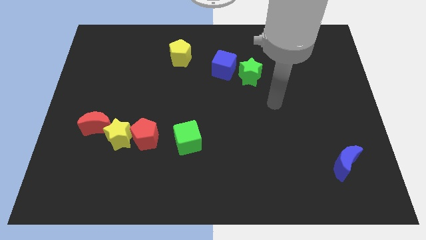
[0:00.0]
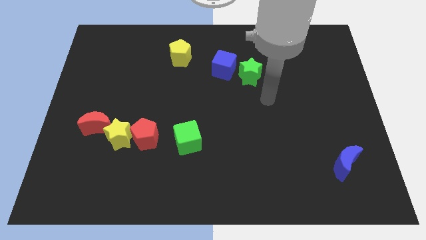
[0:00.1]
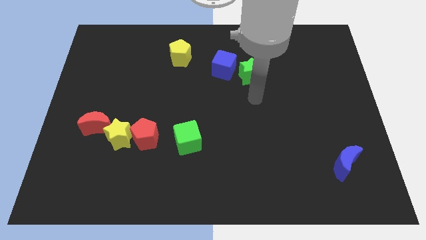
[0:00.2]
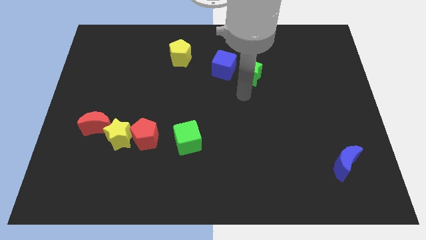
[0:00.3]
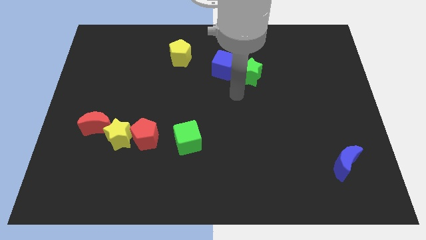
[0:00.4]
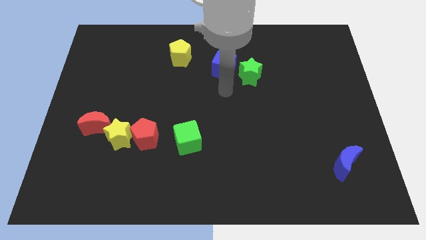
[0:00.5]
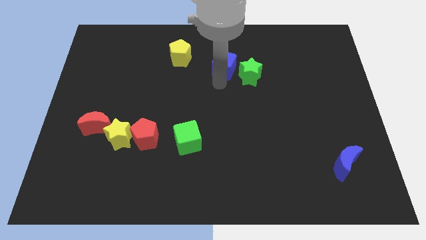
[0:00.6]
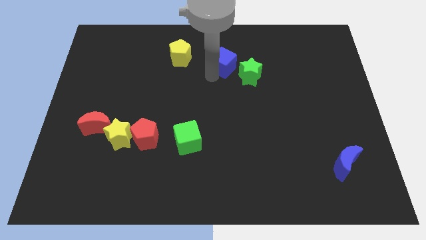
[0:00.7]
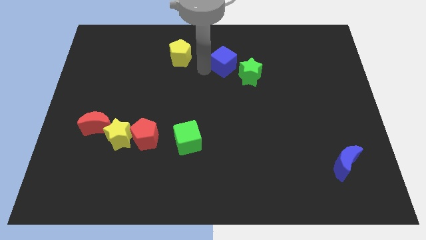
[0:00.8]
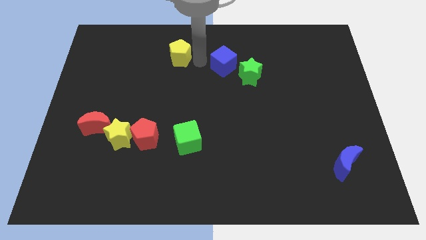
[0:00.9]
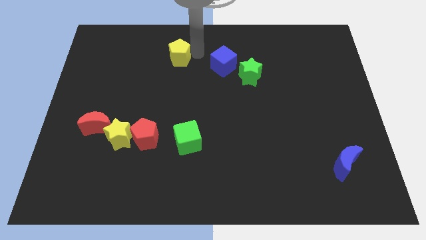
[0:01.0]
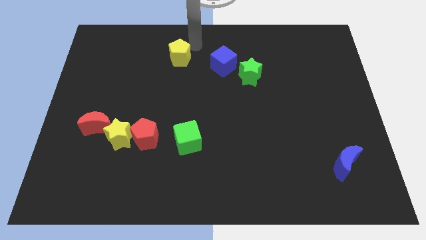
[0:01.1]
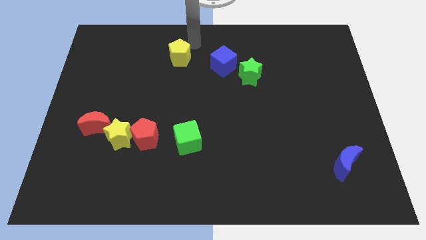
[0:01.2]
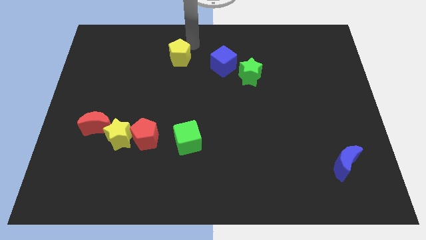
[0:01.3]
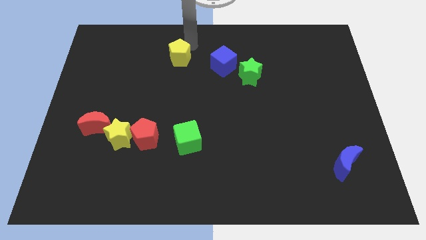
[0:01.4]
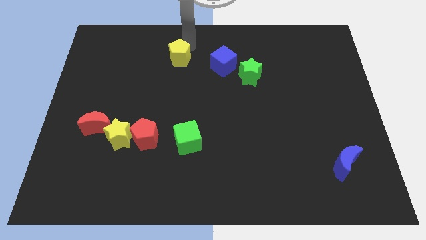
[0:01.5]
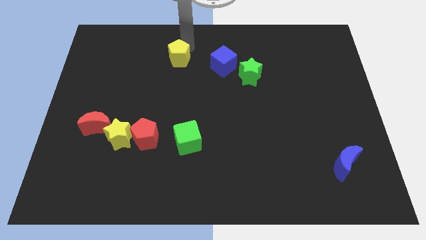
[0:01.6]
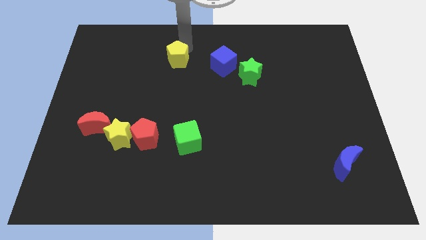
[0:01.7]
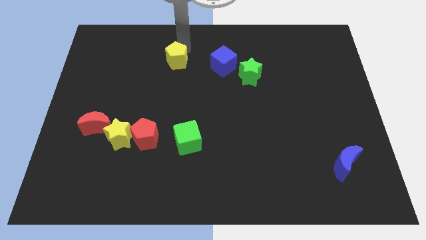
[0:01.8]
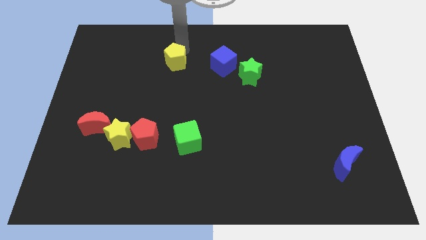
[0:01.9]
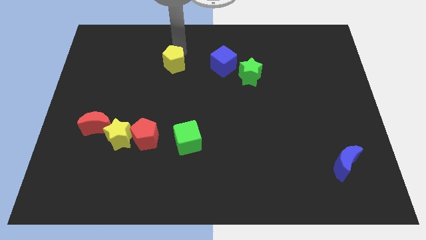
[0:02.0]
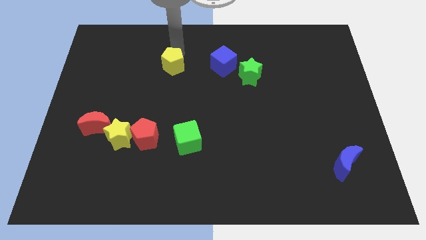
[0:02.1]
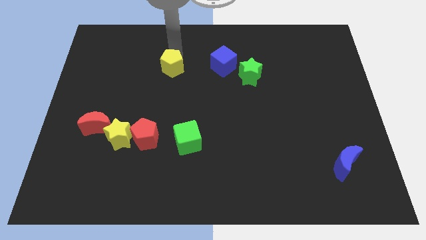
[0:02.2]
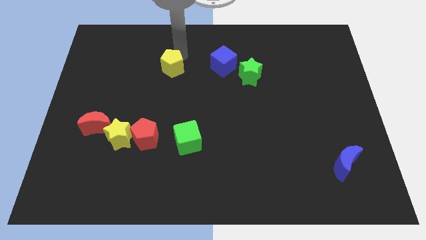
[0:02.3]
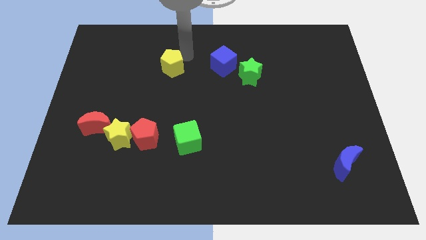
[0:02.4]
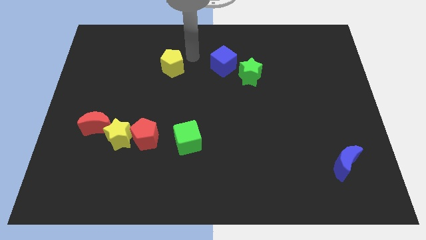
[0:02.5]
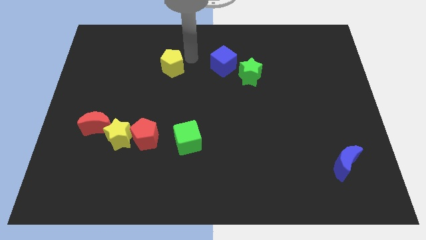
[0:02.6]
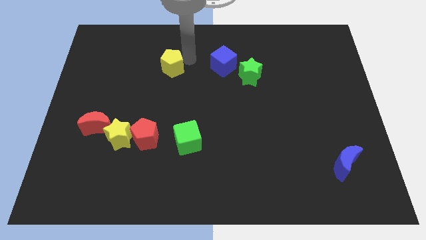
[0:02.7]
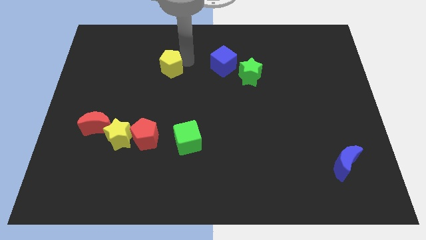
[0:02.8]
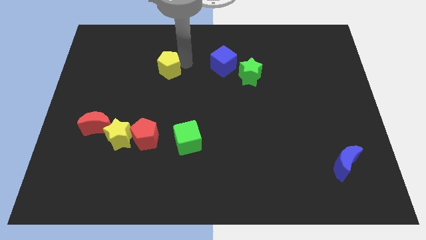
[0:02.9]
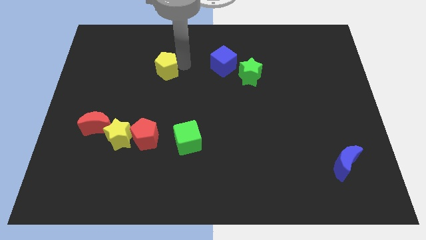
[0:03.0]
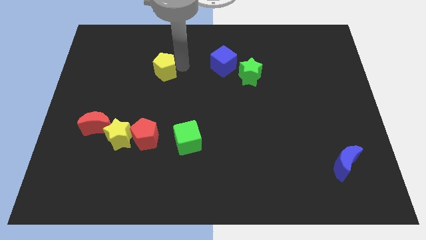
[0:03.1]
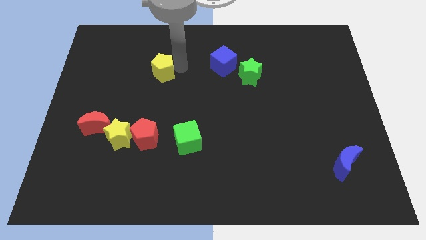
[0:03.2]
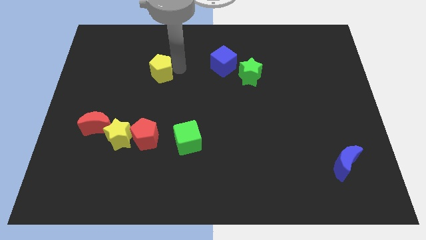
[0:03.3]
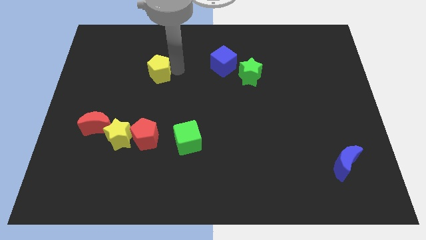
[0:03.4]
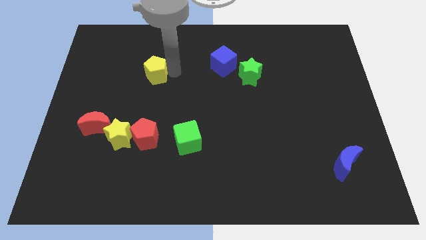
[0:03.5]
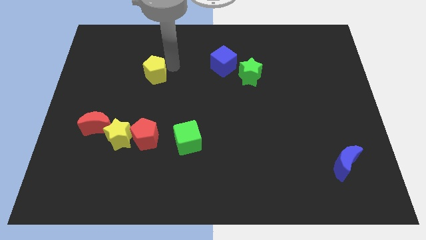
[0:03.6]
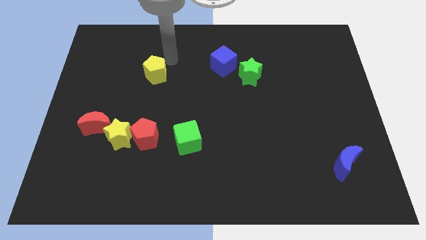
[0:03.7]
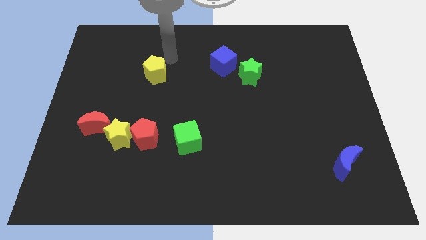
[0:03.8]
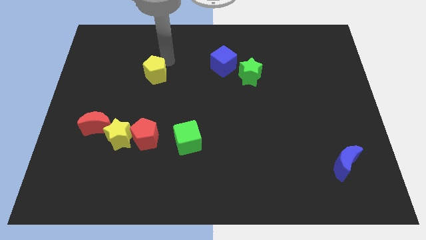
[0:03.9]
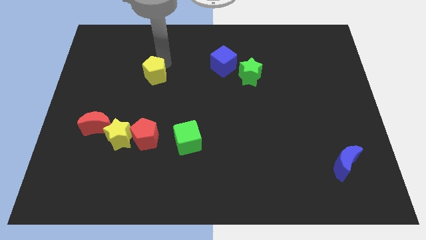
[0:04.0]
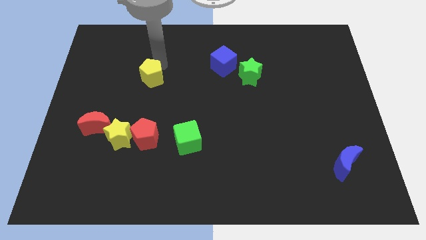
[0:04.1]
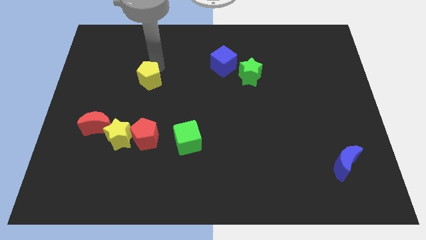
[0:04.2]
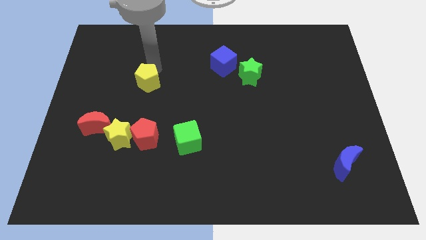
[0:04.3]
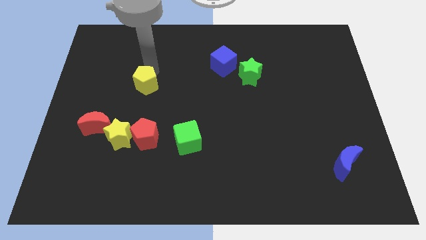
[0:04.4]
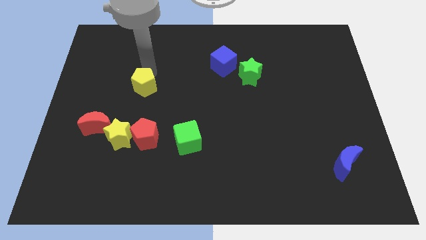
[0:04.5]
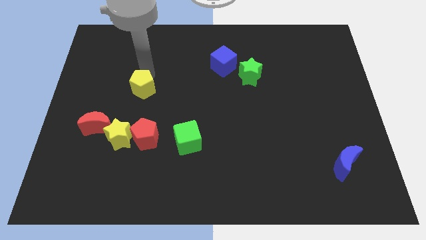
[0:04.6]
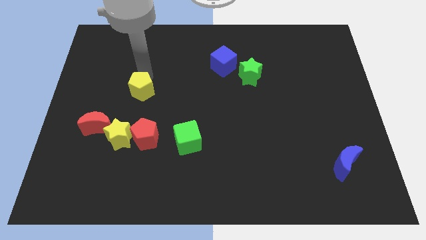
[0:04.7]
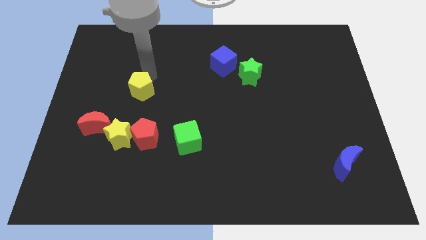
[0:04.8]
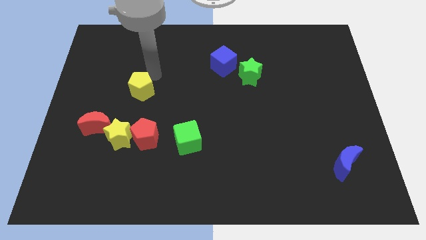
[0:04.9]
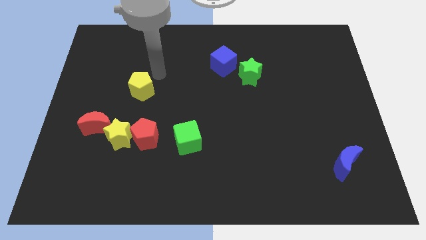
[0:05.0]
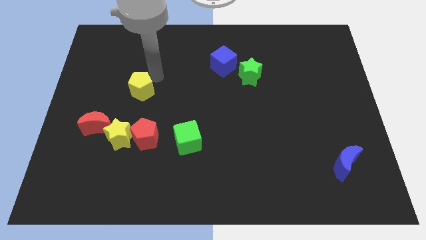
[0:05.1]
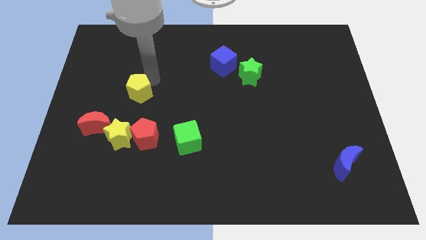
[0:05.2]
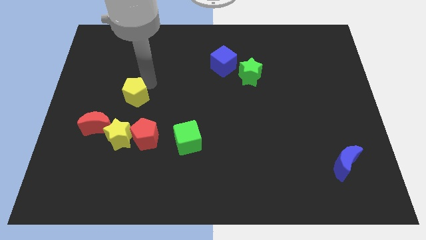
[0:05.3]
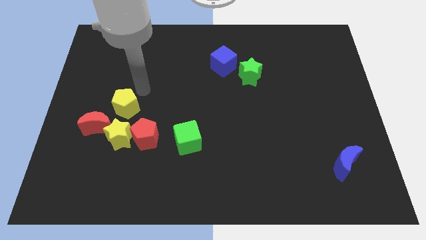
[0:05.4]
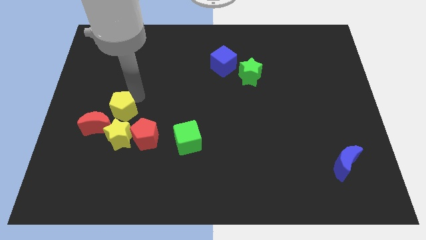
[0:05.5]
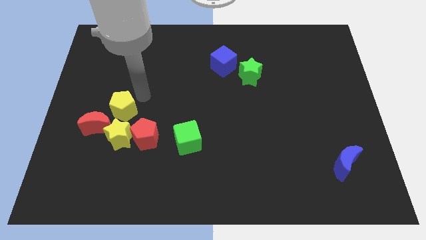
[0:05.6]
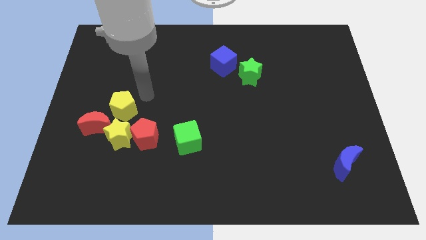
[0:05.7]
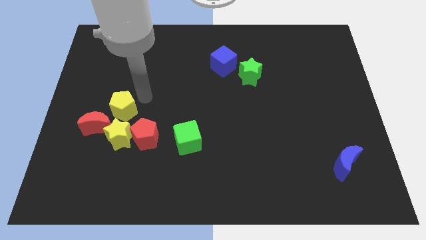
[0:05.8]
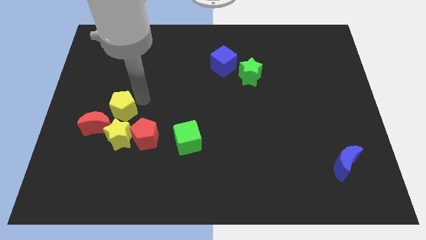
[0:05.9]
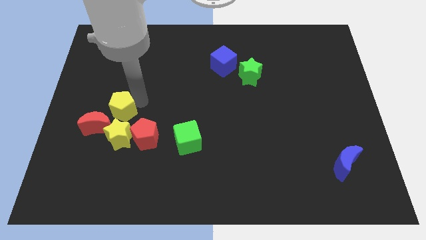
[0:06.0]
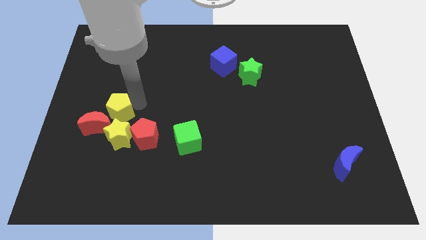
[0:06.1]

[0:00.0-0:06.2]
push the yellow pentagon towards the red moon

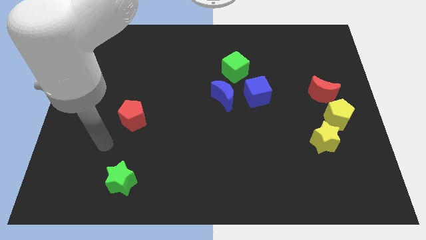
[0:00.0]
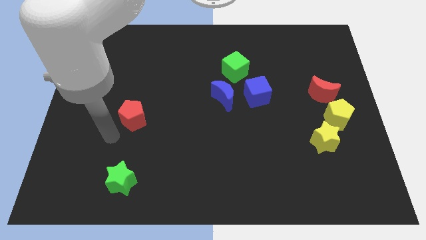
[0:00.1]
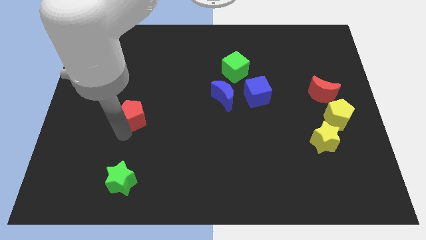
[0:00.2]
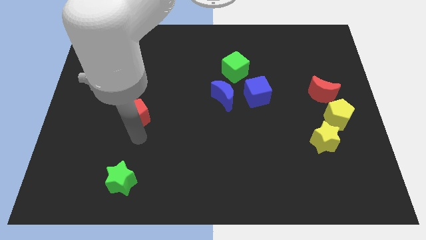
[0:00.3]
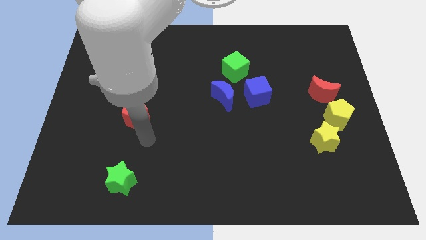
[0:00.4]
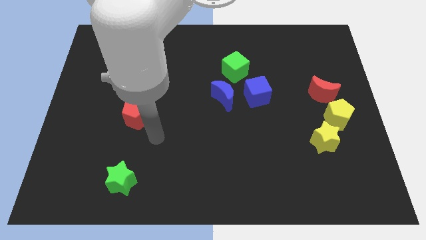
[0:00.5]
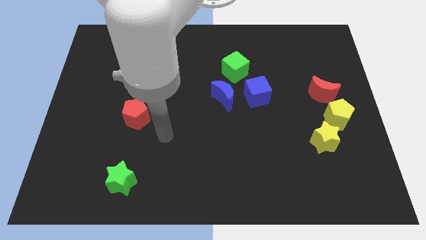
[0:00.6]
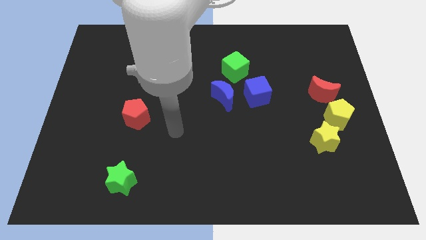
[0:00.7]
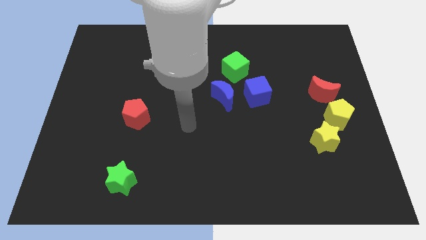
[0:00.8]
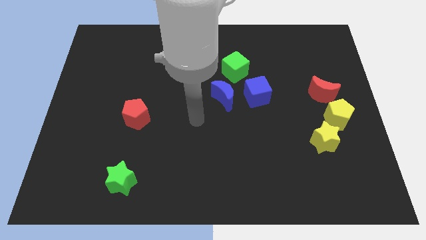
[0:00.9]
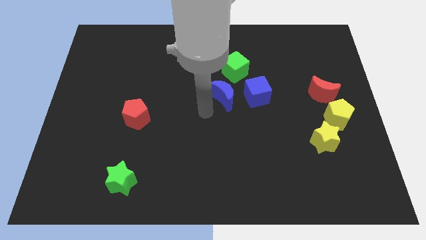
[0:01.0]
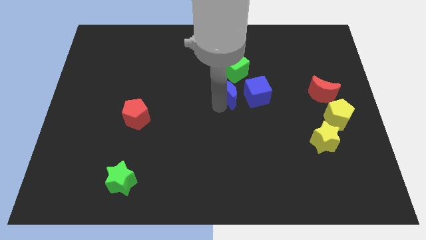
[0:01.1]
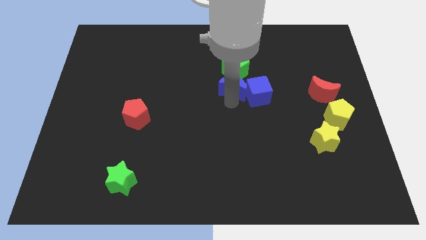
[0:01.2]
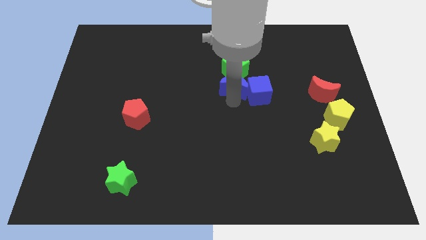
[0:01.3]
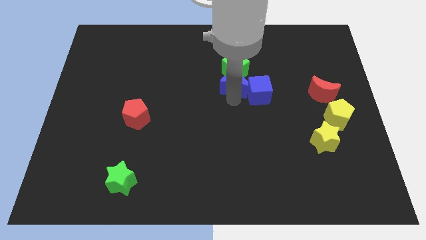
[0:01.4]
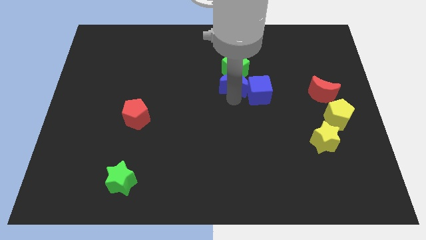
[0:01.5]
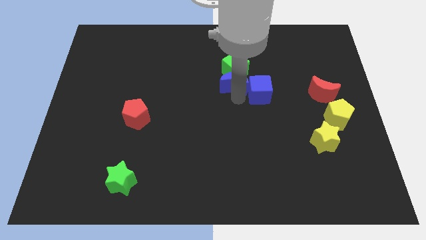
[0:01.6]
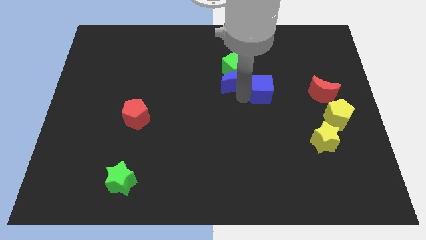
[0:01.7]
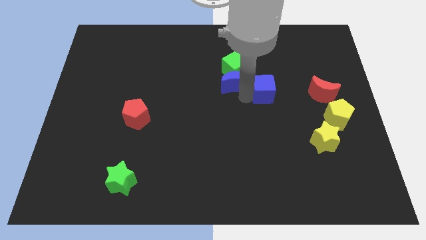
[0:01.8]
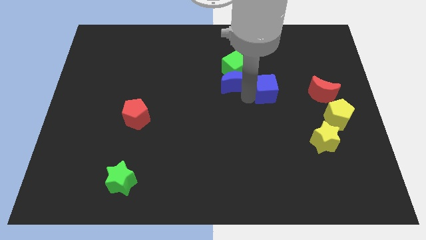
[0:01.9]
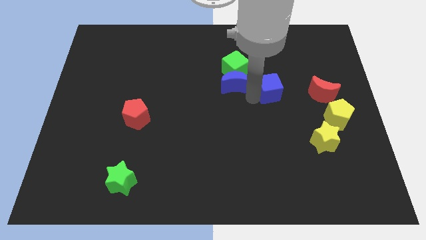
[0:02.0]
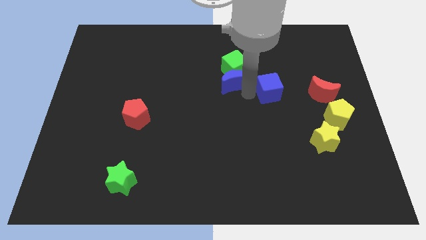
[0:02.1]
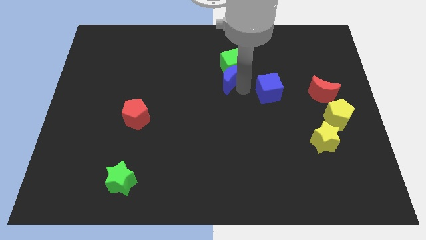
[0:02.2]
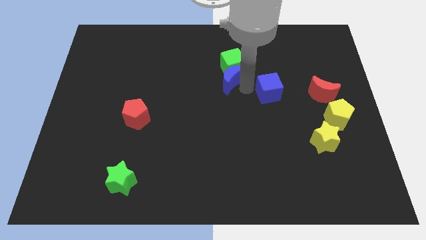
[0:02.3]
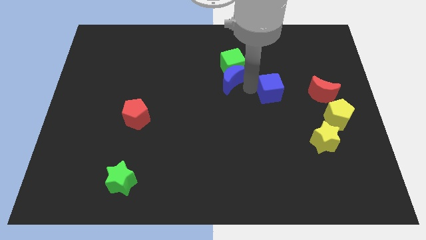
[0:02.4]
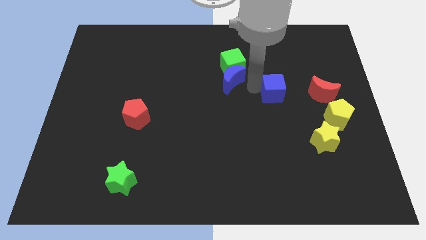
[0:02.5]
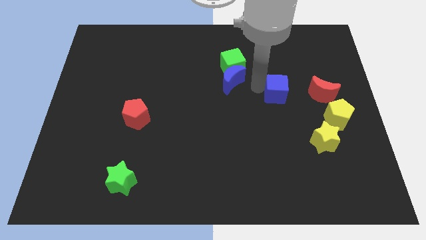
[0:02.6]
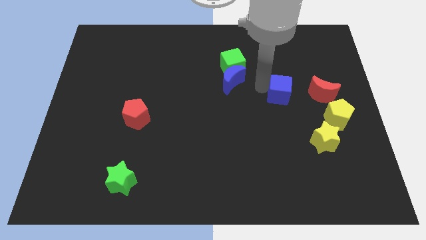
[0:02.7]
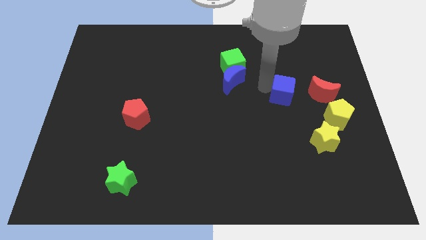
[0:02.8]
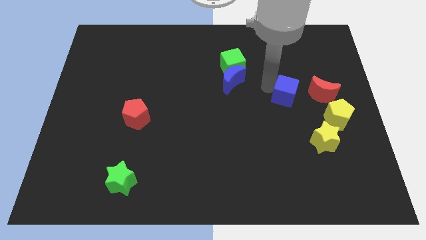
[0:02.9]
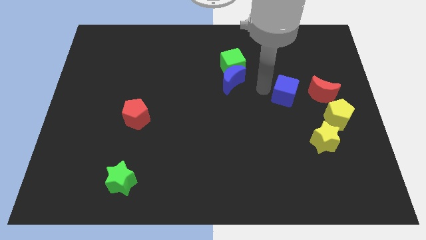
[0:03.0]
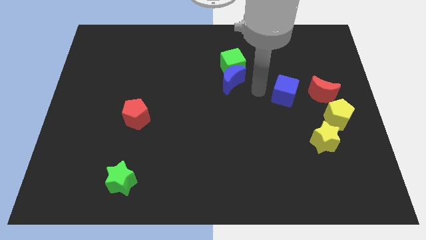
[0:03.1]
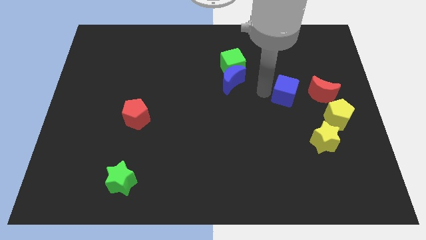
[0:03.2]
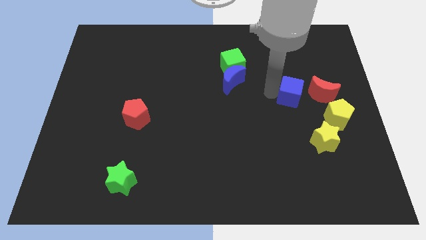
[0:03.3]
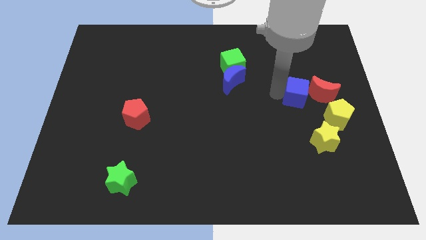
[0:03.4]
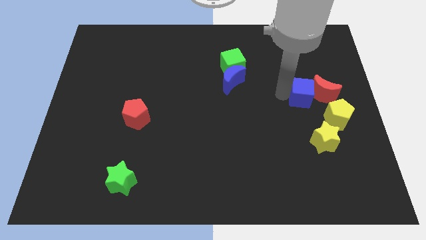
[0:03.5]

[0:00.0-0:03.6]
slide the blue cube next to the red moon
